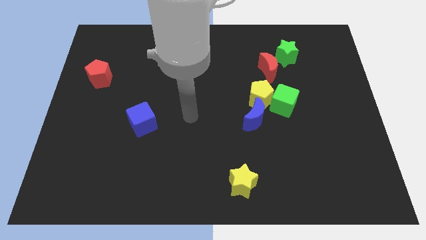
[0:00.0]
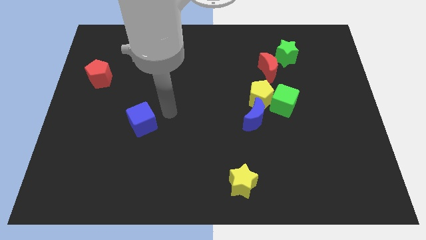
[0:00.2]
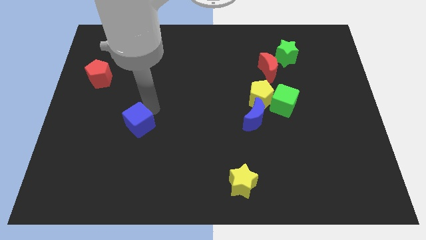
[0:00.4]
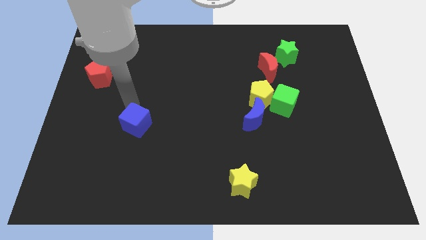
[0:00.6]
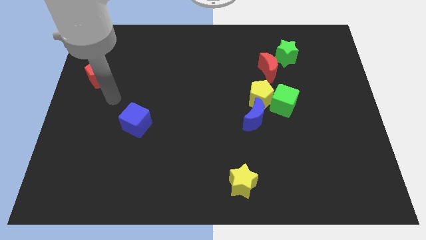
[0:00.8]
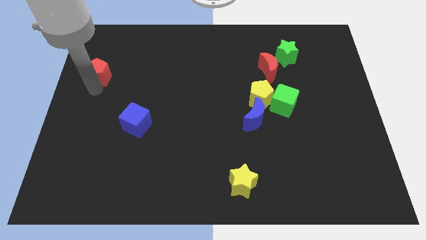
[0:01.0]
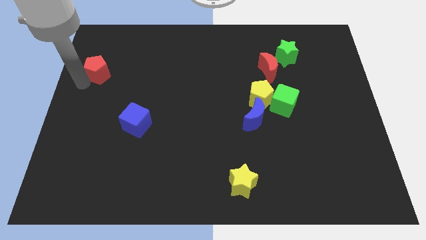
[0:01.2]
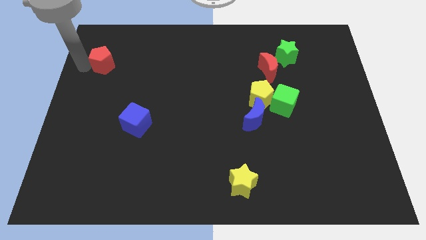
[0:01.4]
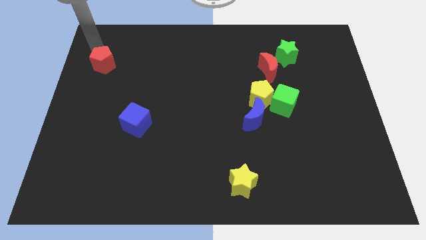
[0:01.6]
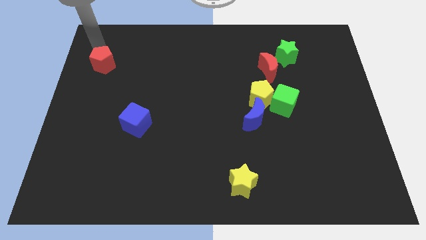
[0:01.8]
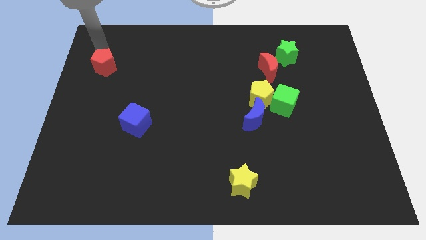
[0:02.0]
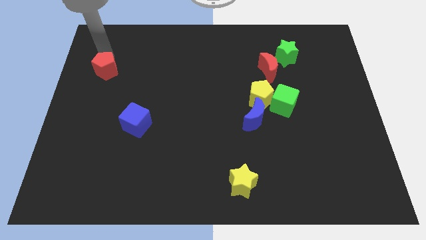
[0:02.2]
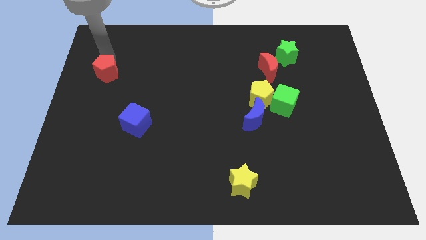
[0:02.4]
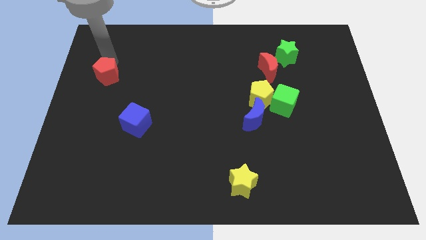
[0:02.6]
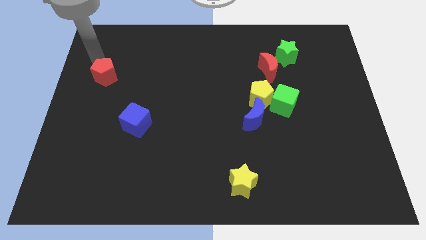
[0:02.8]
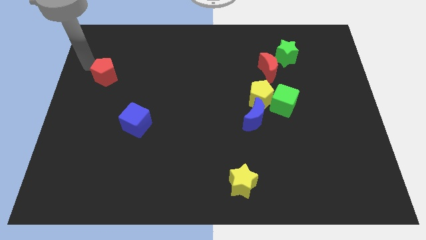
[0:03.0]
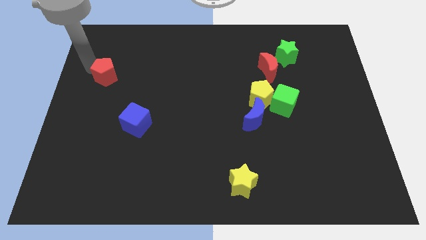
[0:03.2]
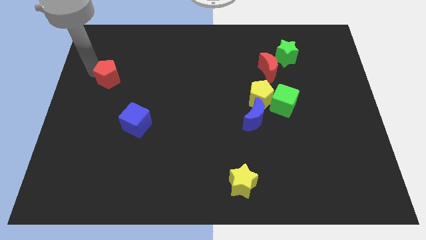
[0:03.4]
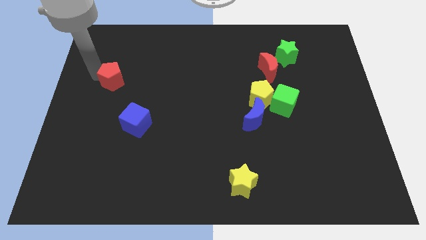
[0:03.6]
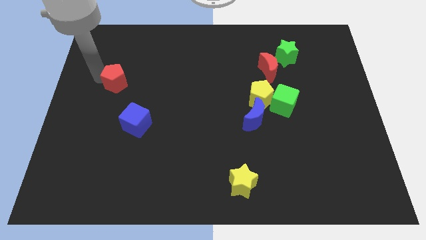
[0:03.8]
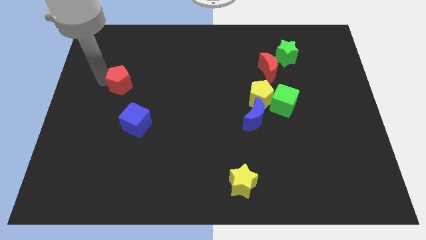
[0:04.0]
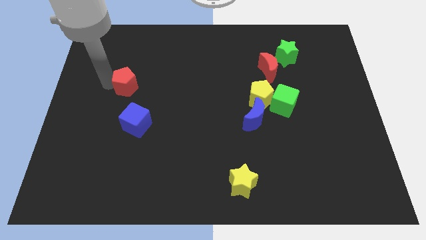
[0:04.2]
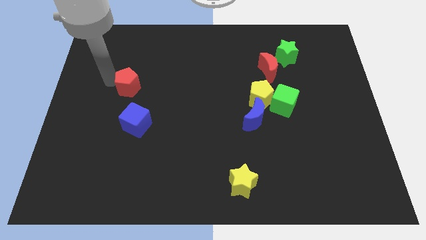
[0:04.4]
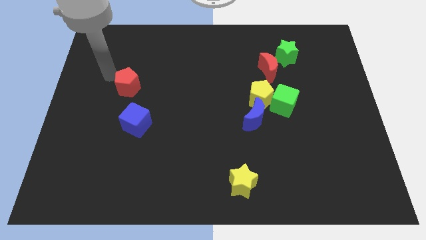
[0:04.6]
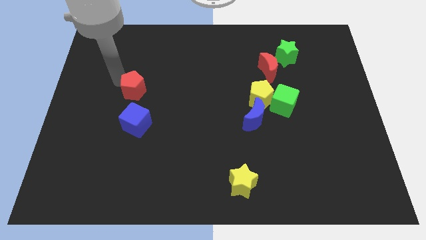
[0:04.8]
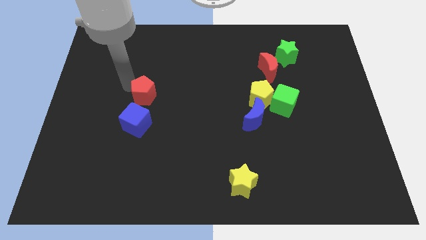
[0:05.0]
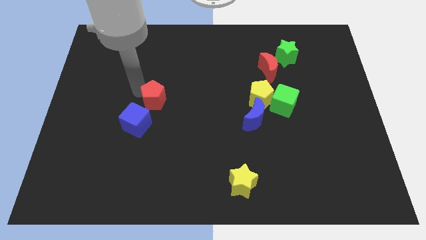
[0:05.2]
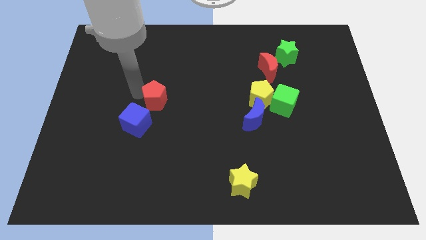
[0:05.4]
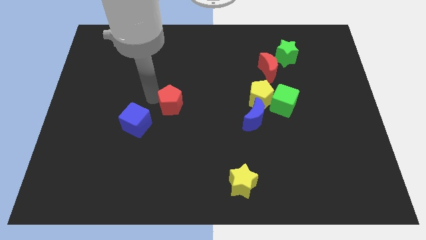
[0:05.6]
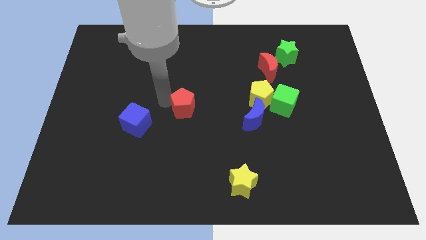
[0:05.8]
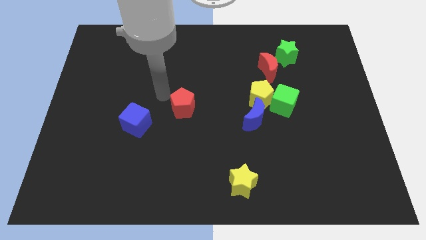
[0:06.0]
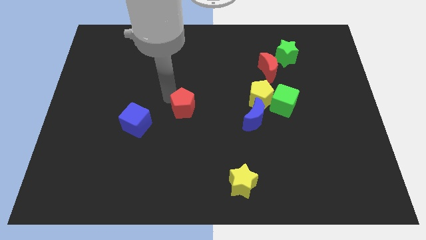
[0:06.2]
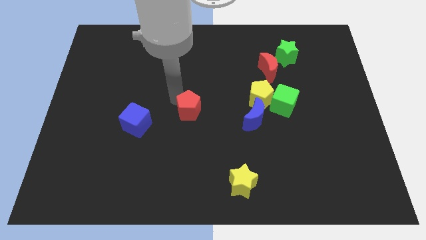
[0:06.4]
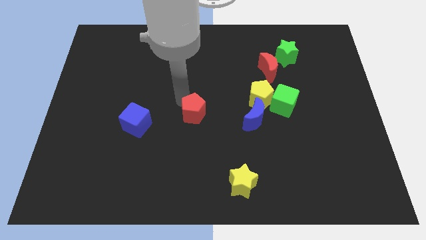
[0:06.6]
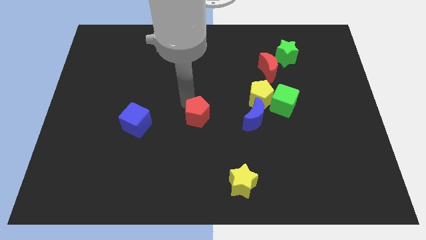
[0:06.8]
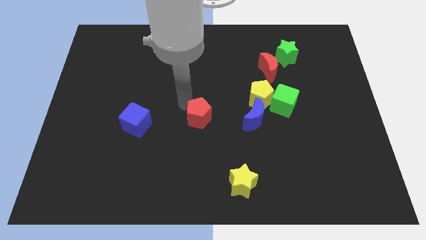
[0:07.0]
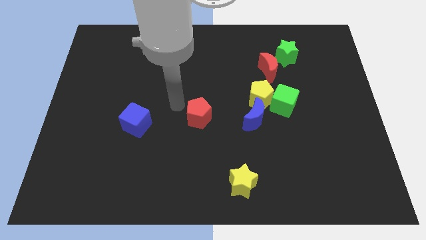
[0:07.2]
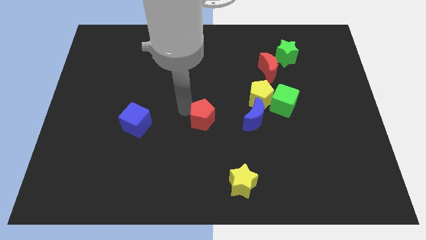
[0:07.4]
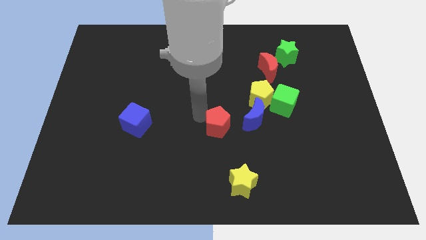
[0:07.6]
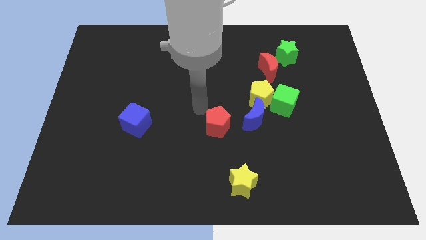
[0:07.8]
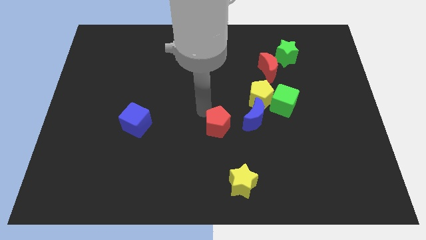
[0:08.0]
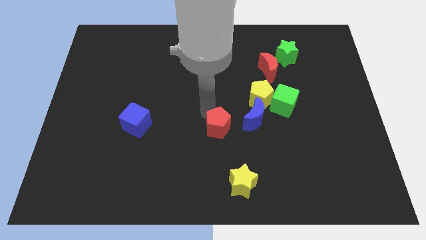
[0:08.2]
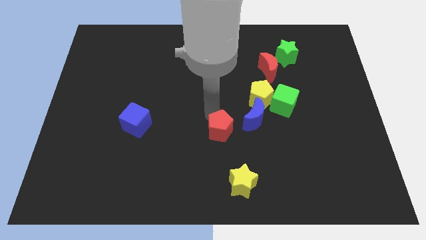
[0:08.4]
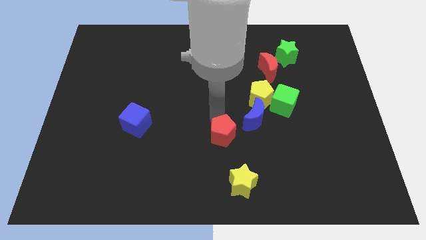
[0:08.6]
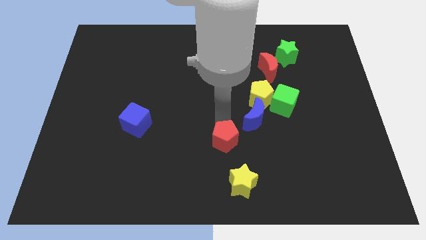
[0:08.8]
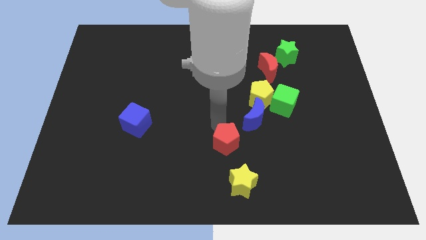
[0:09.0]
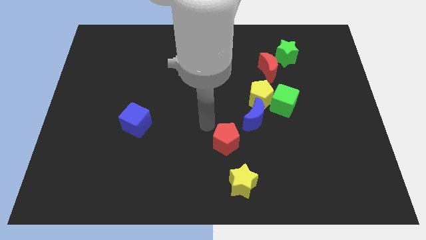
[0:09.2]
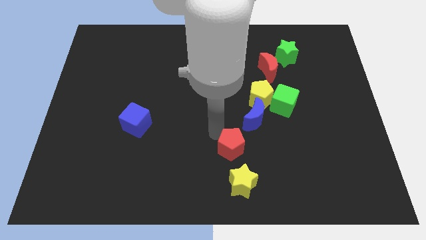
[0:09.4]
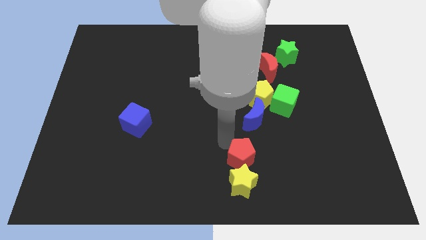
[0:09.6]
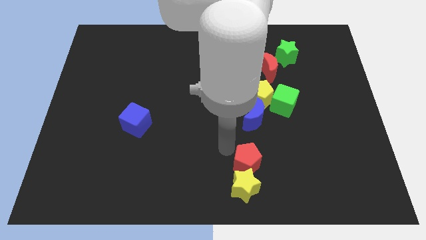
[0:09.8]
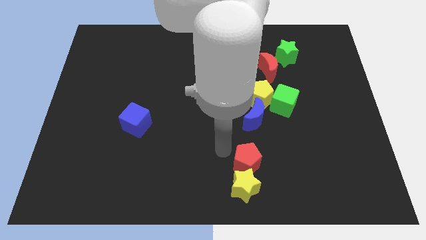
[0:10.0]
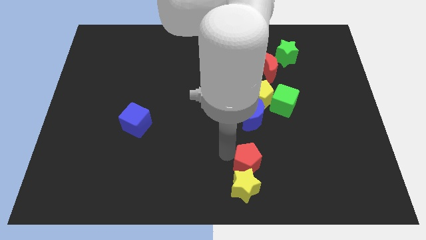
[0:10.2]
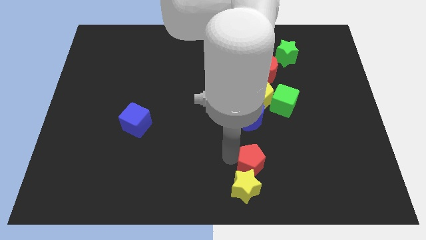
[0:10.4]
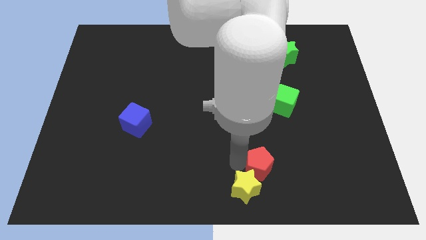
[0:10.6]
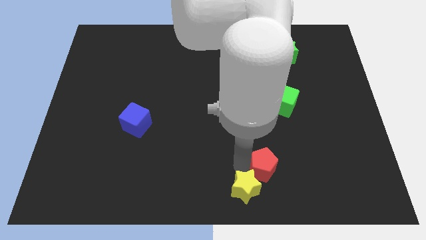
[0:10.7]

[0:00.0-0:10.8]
slide the red pentagon just right of the yellow star
